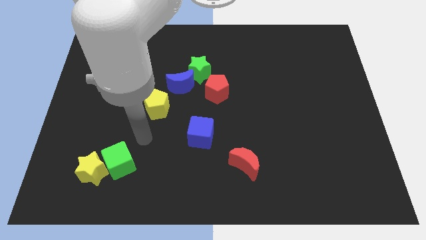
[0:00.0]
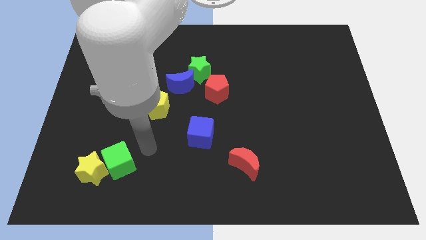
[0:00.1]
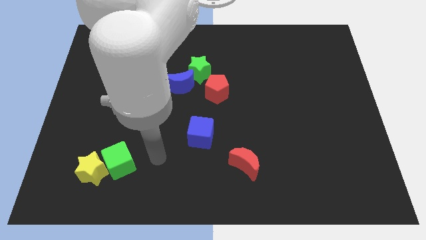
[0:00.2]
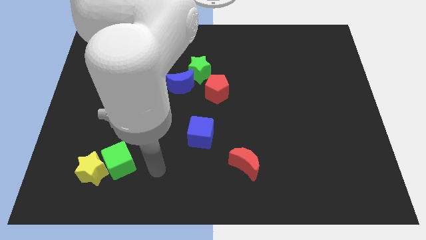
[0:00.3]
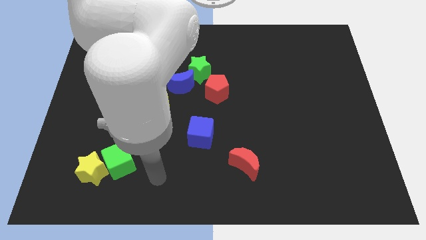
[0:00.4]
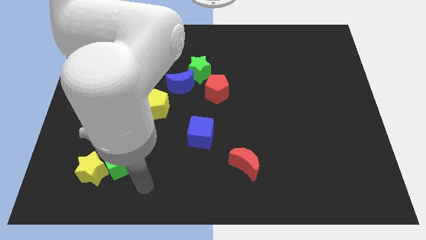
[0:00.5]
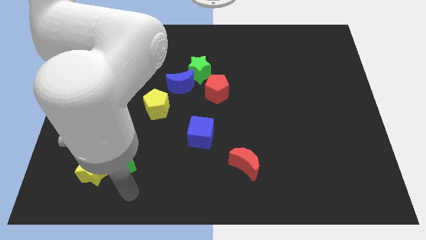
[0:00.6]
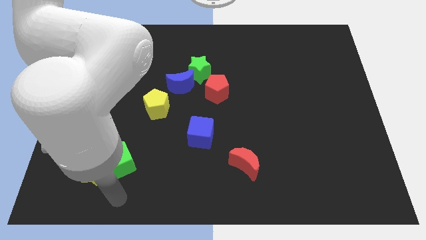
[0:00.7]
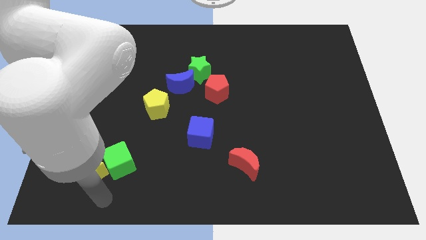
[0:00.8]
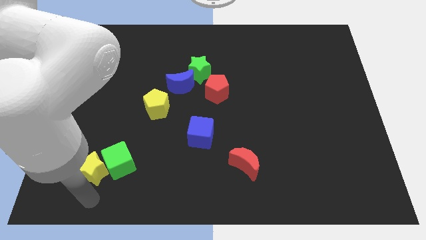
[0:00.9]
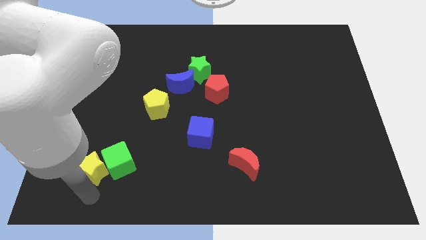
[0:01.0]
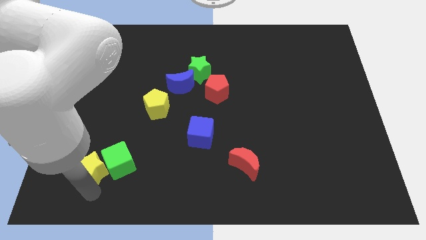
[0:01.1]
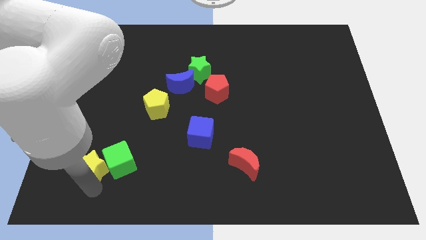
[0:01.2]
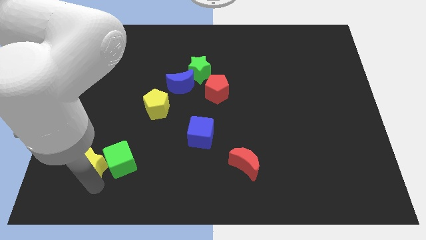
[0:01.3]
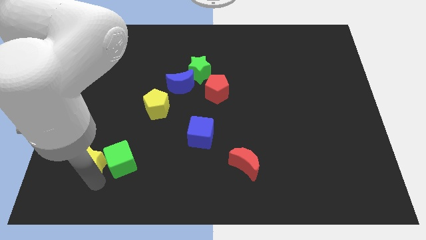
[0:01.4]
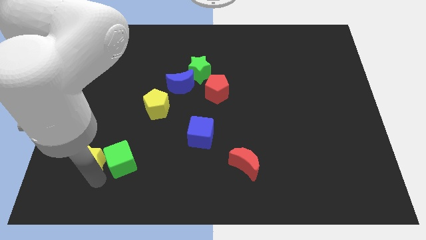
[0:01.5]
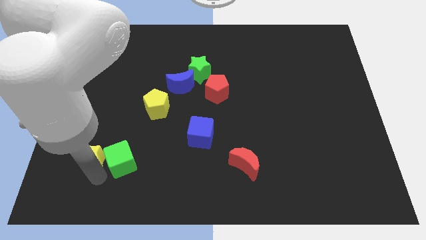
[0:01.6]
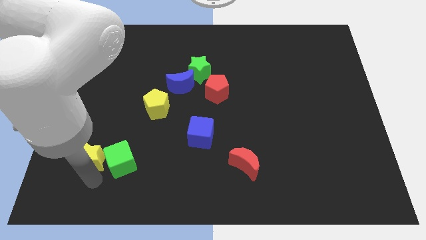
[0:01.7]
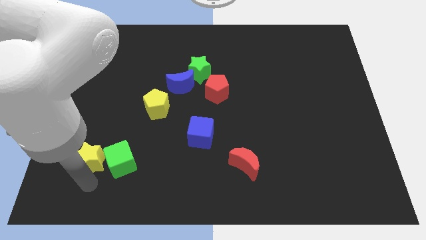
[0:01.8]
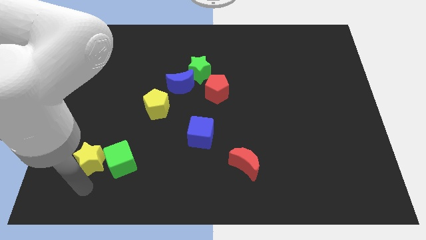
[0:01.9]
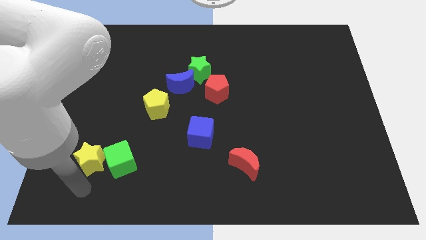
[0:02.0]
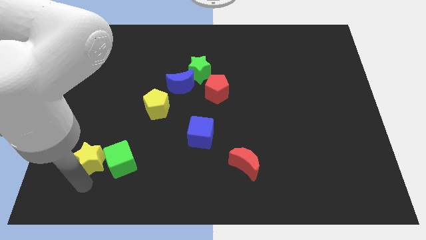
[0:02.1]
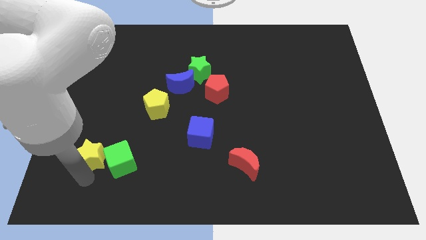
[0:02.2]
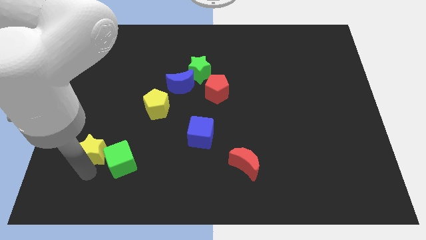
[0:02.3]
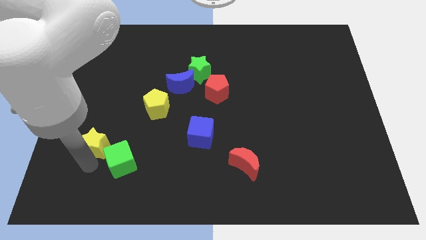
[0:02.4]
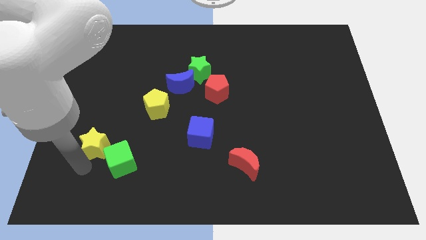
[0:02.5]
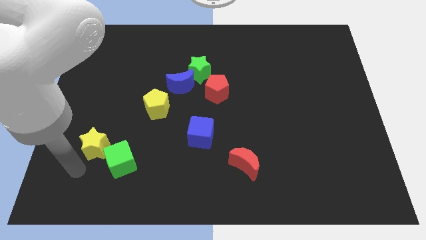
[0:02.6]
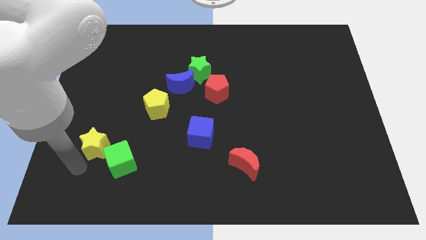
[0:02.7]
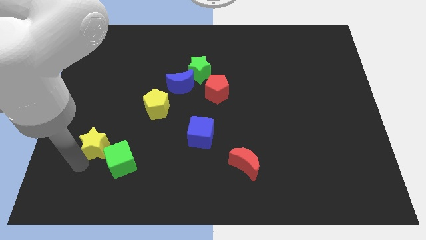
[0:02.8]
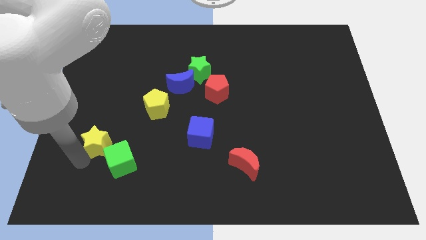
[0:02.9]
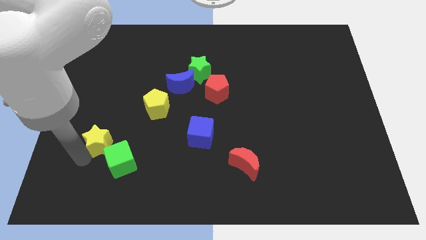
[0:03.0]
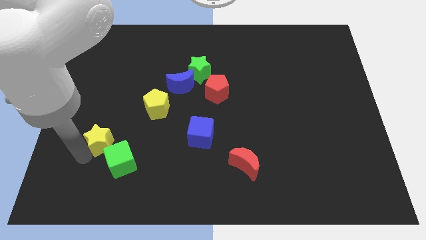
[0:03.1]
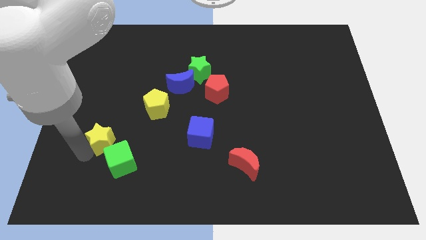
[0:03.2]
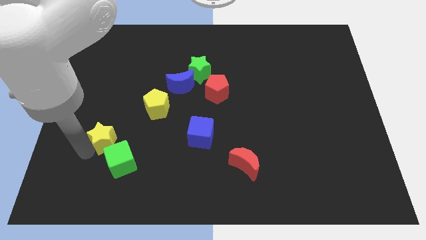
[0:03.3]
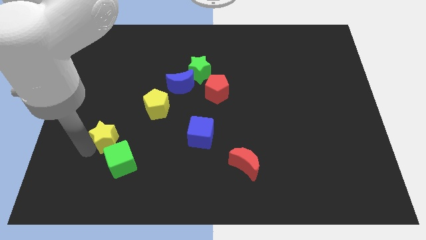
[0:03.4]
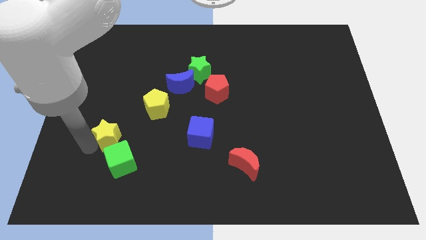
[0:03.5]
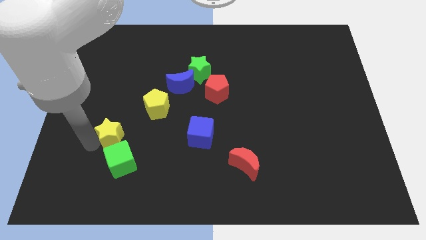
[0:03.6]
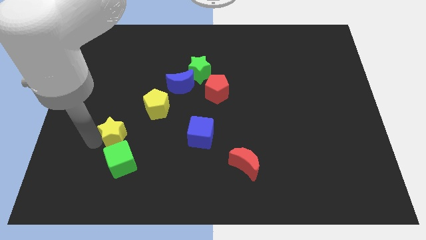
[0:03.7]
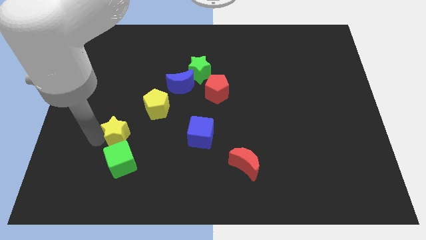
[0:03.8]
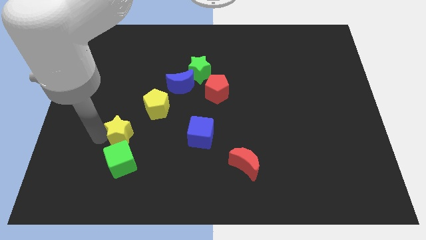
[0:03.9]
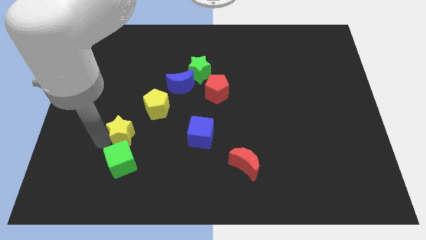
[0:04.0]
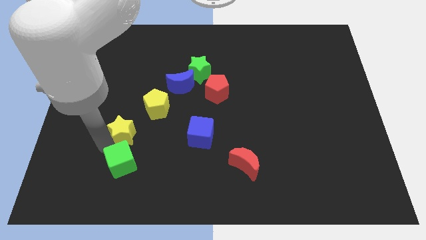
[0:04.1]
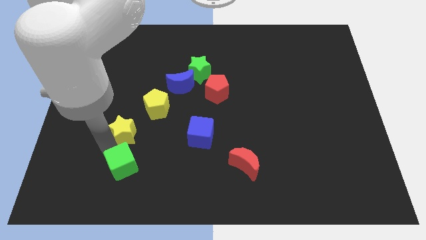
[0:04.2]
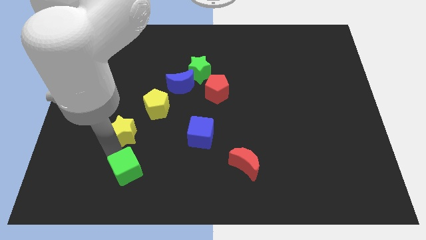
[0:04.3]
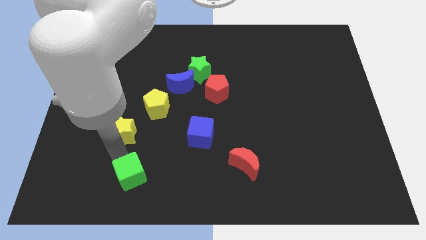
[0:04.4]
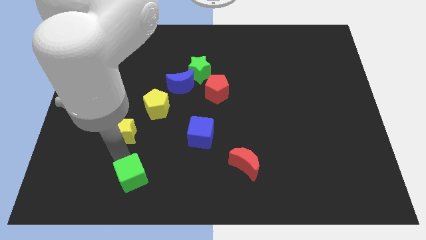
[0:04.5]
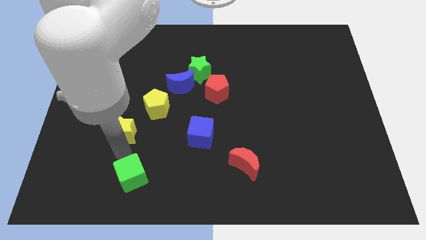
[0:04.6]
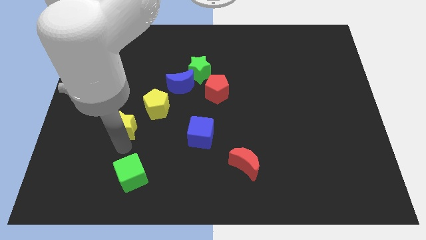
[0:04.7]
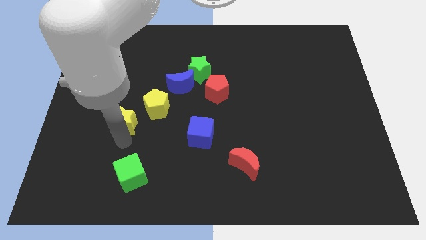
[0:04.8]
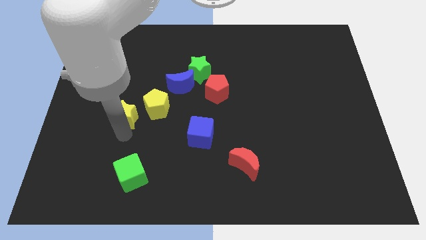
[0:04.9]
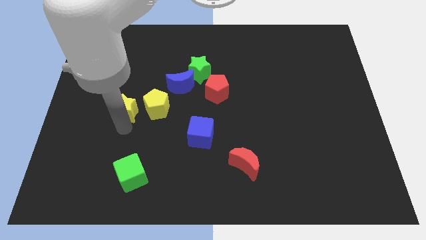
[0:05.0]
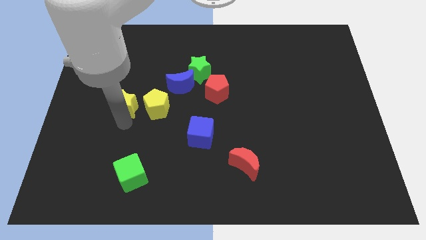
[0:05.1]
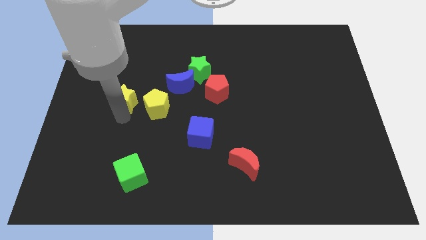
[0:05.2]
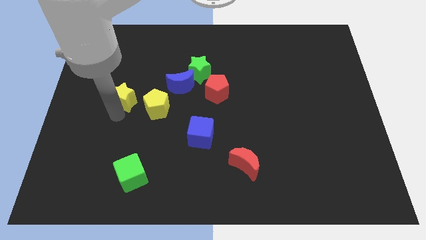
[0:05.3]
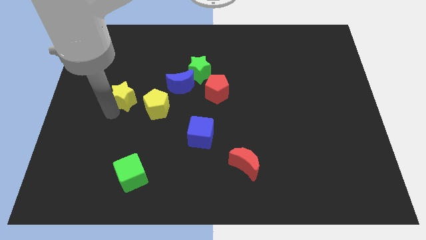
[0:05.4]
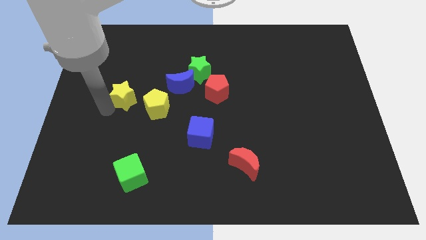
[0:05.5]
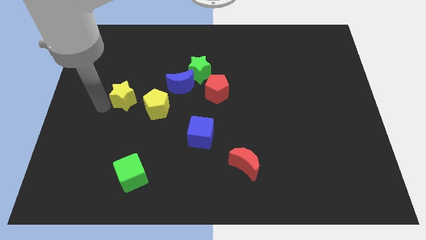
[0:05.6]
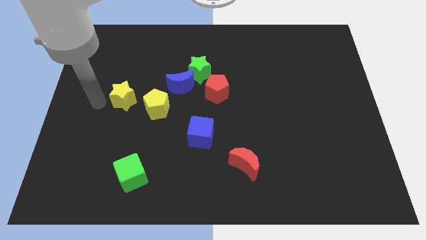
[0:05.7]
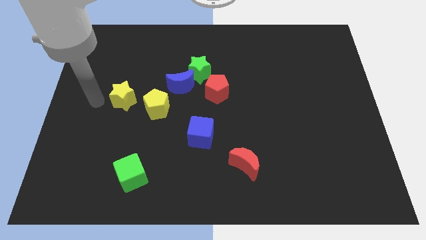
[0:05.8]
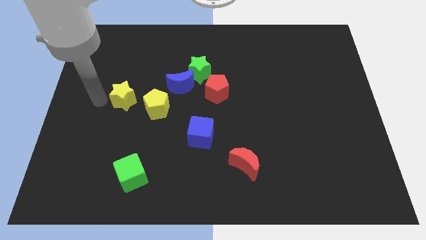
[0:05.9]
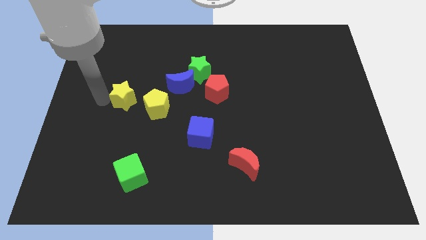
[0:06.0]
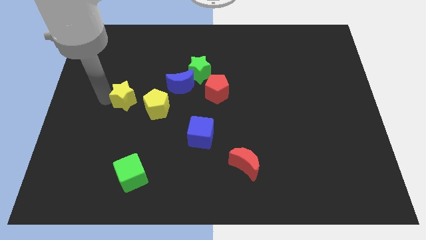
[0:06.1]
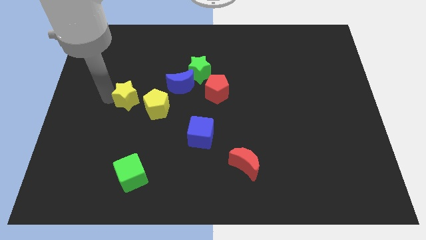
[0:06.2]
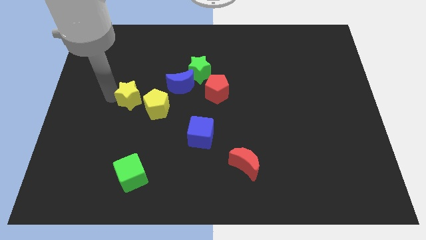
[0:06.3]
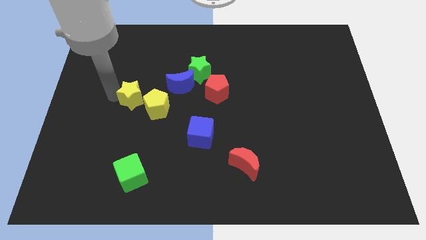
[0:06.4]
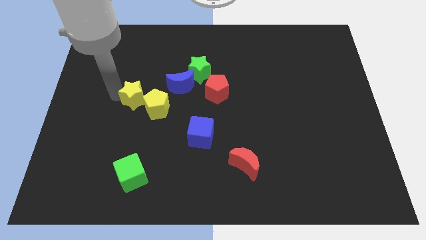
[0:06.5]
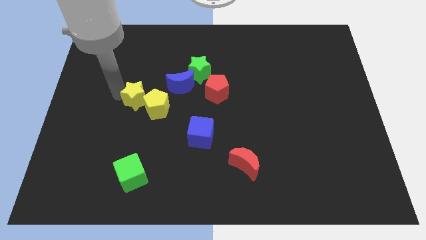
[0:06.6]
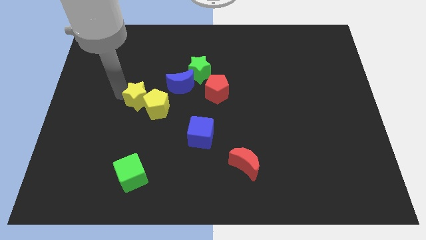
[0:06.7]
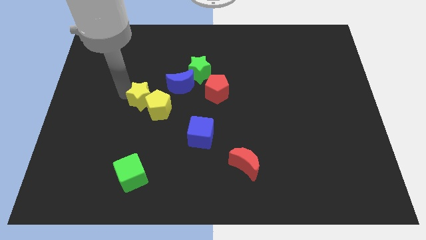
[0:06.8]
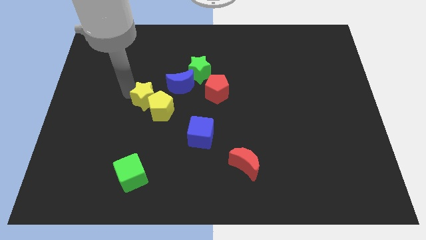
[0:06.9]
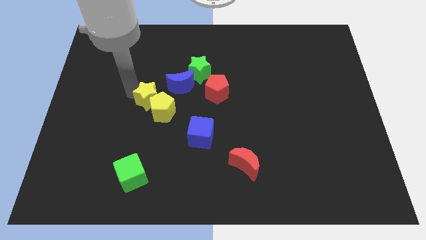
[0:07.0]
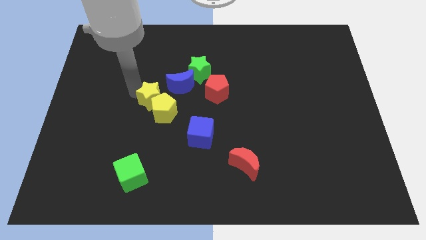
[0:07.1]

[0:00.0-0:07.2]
slide the yellow star left of the red pentagon
